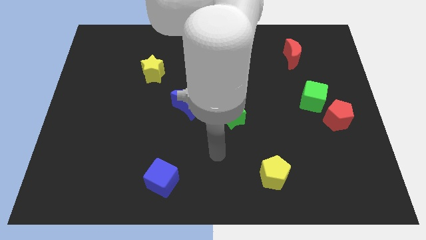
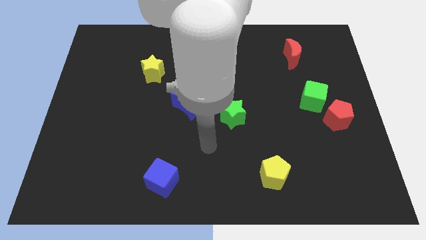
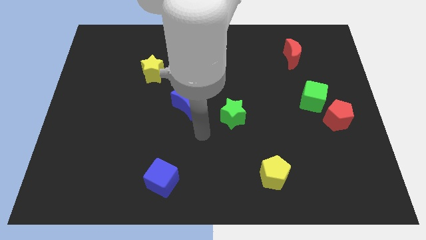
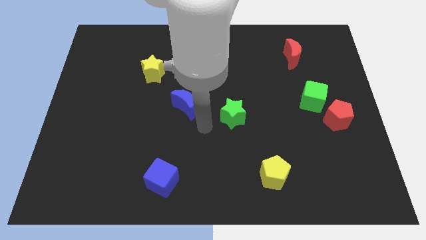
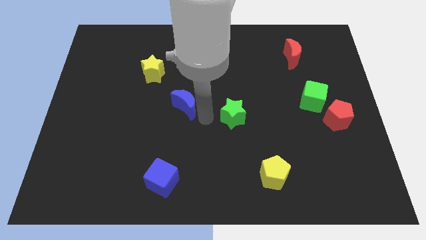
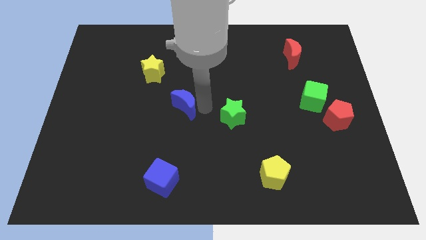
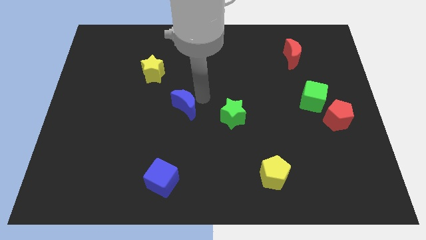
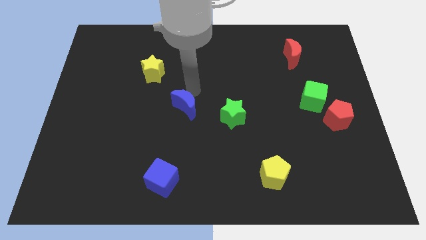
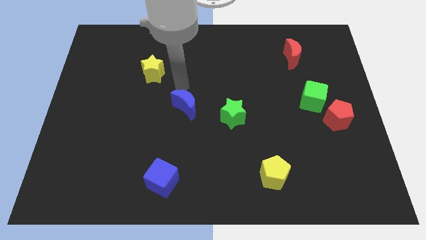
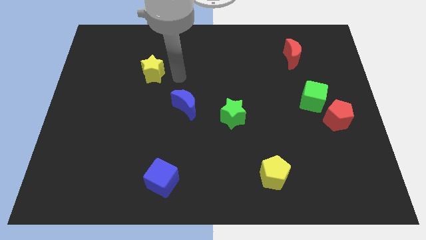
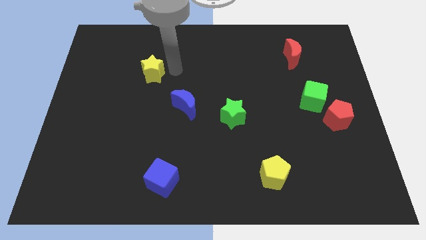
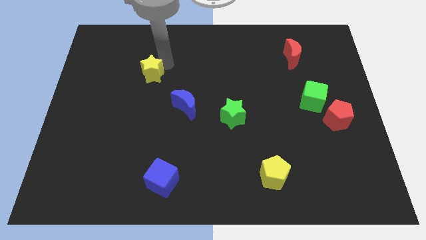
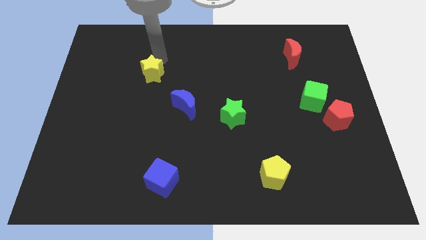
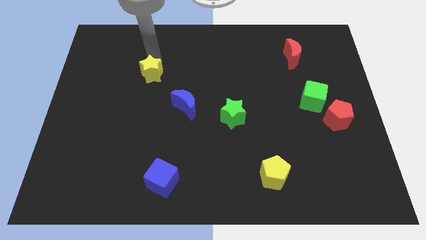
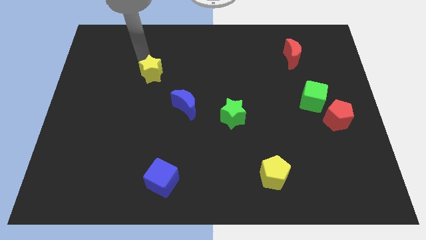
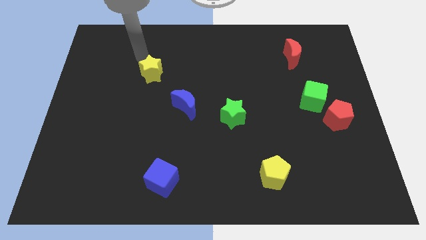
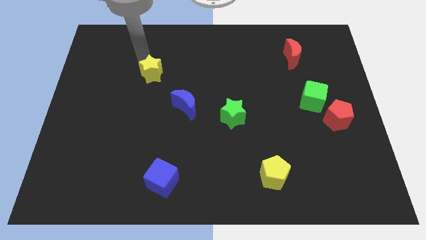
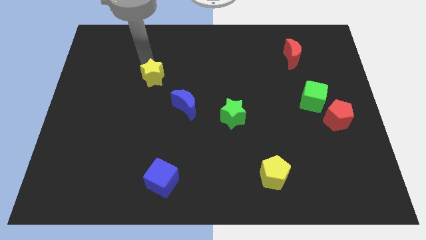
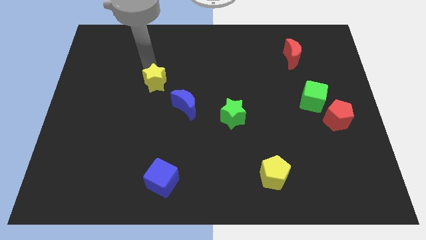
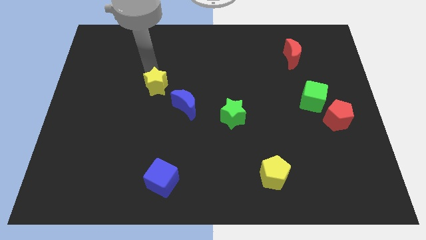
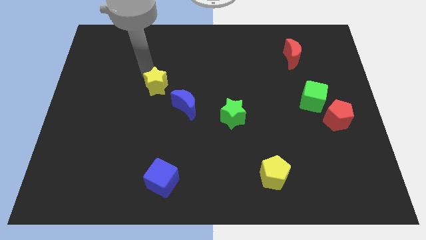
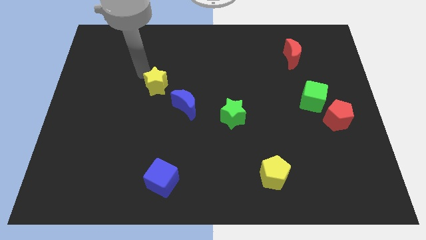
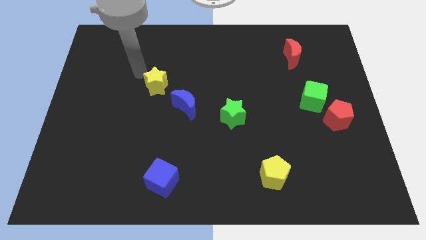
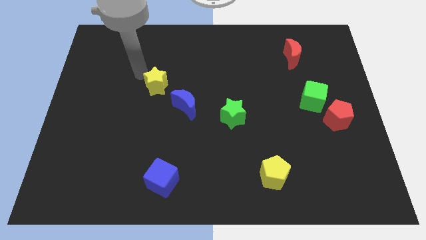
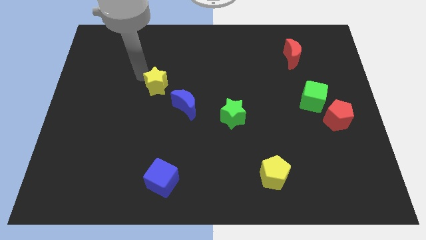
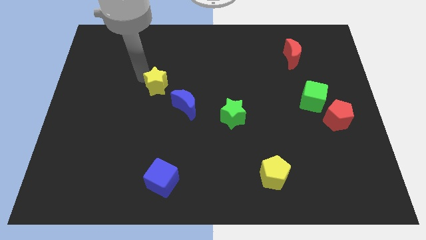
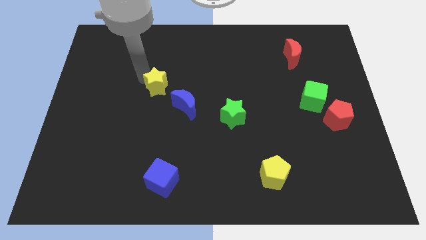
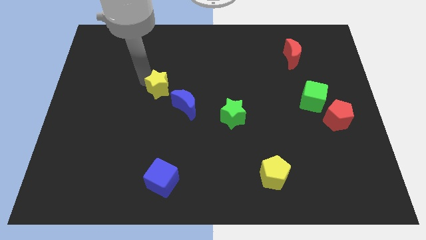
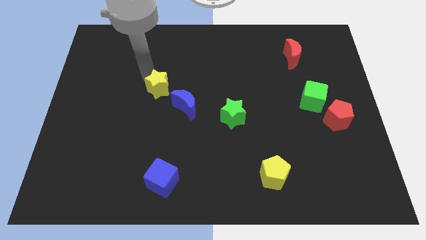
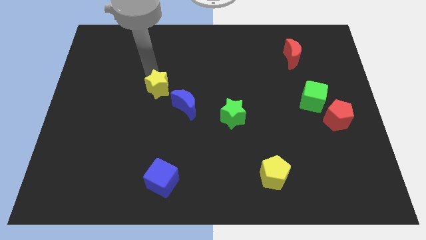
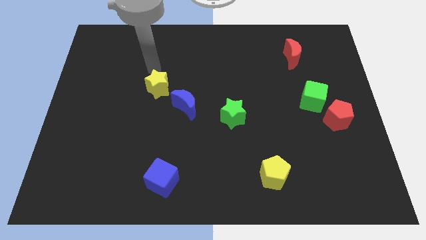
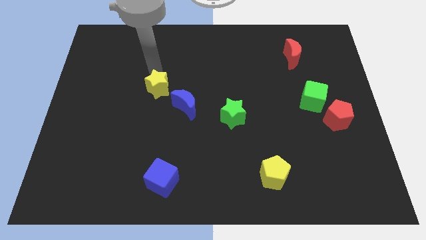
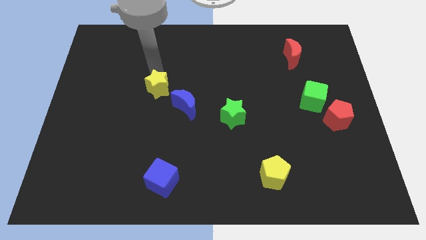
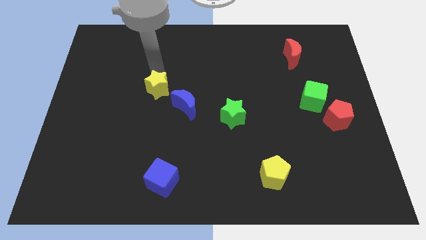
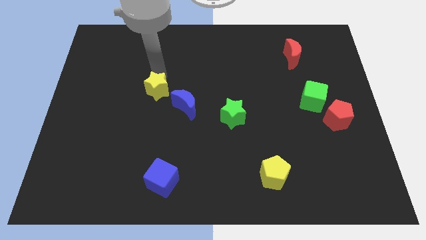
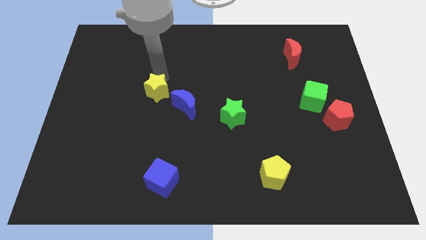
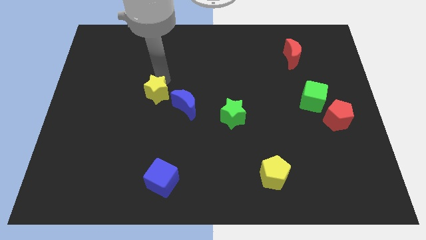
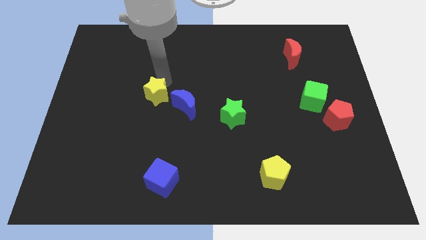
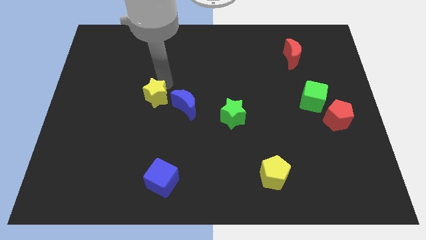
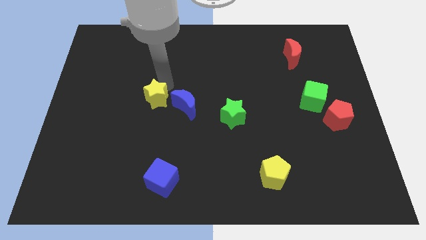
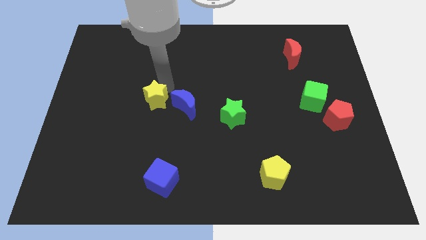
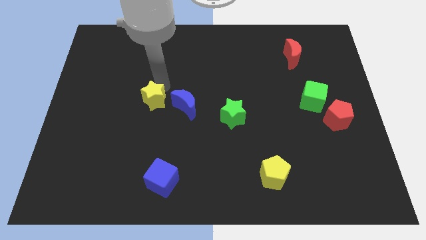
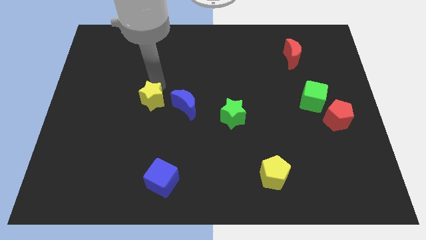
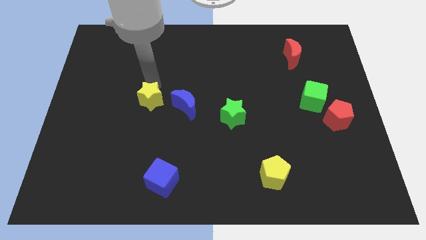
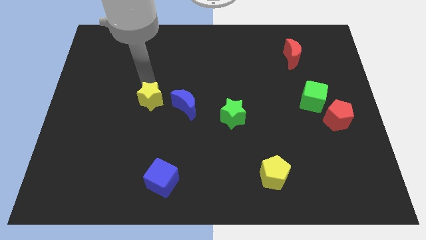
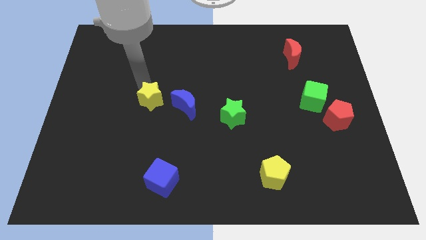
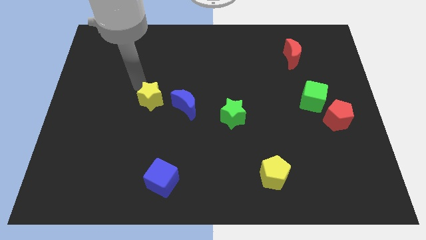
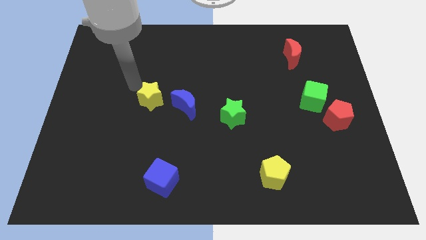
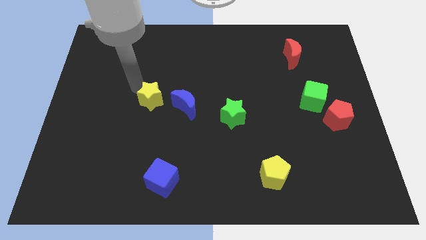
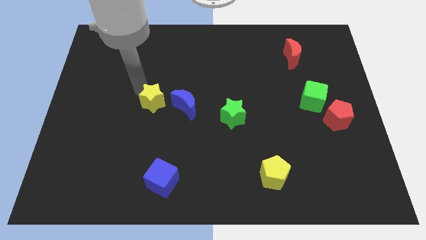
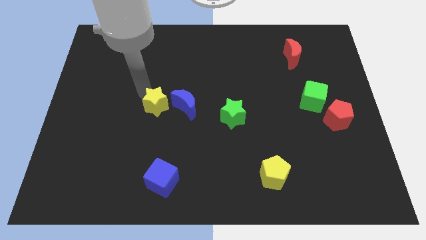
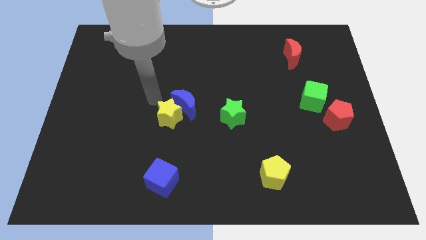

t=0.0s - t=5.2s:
put the yellow star to the bottom of the blue moon

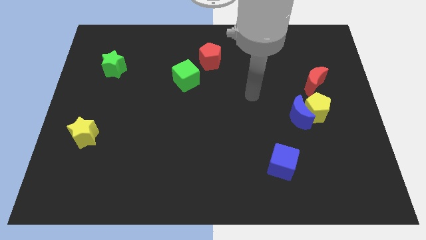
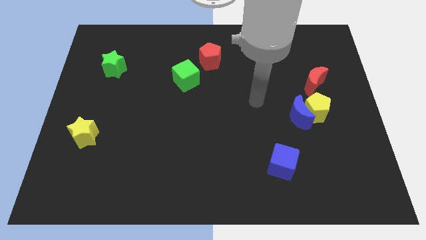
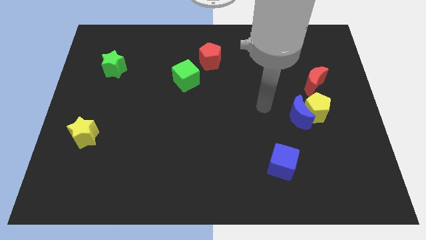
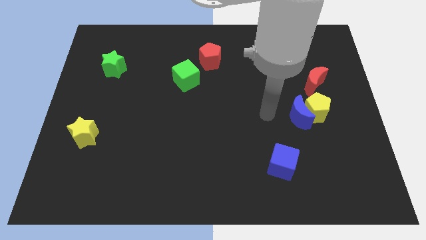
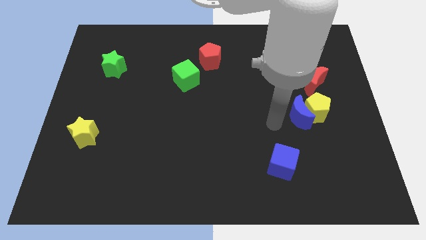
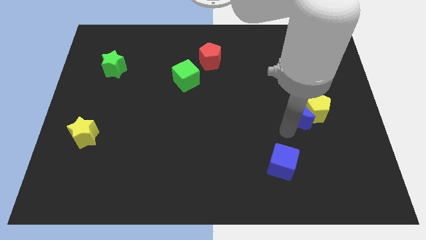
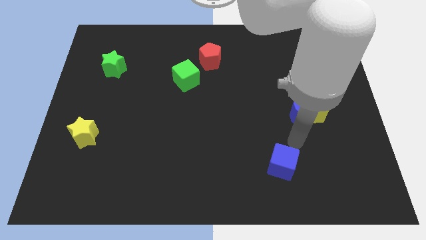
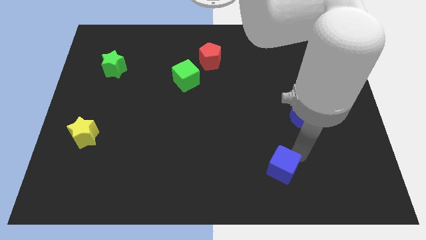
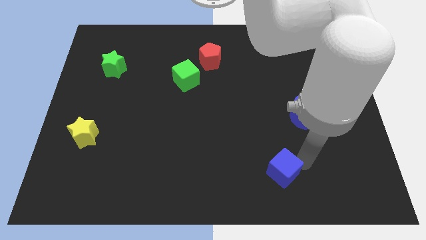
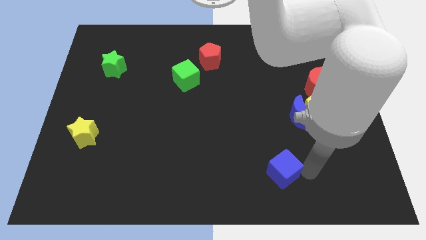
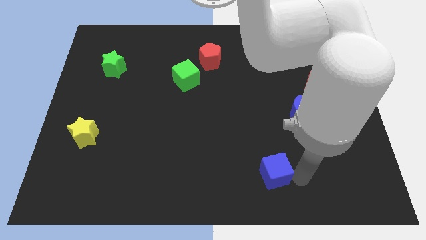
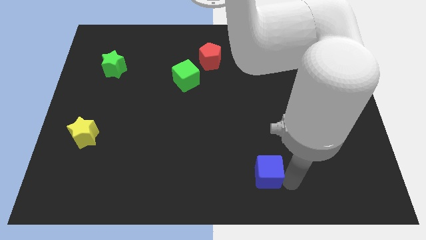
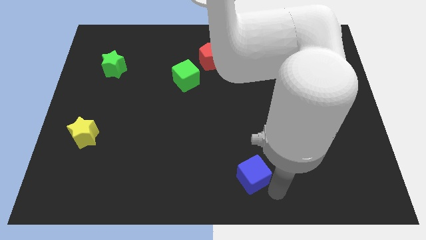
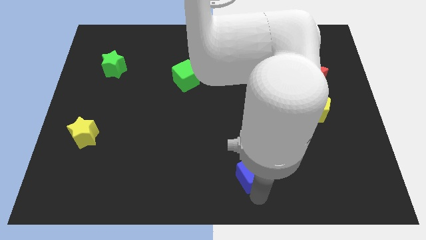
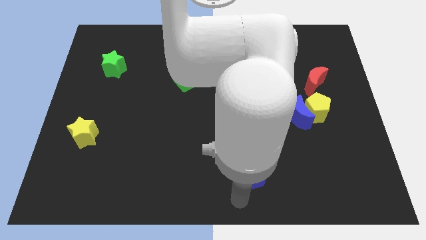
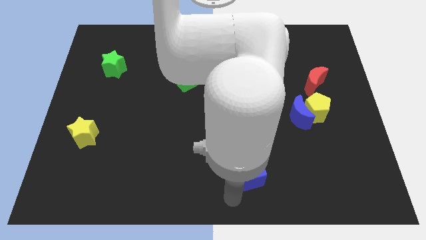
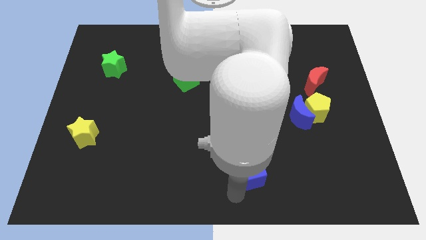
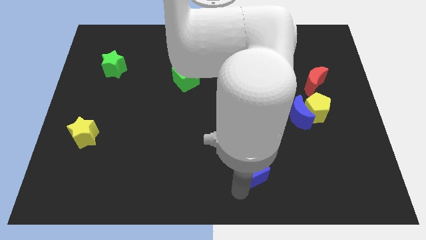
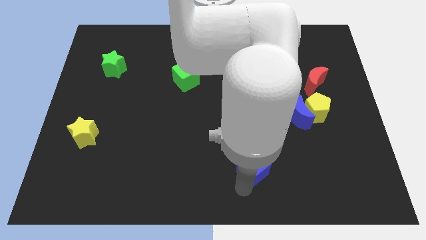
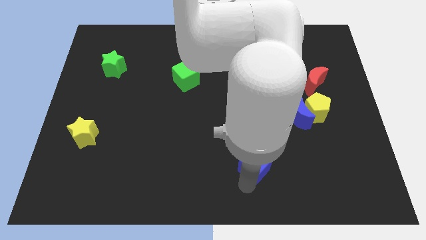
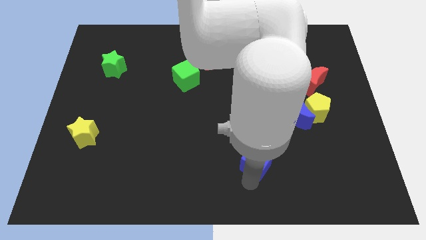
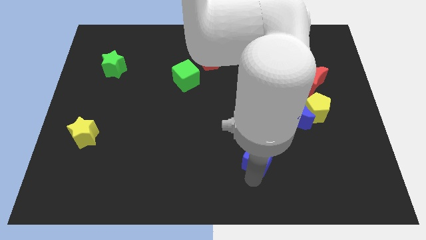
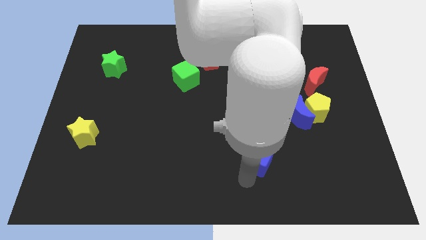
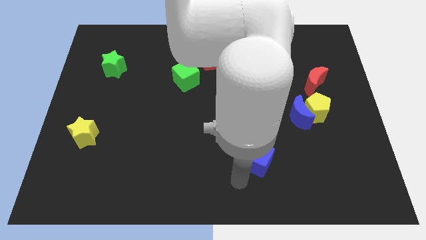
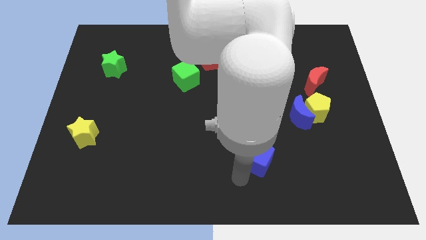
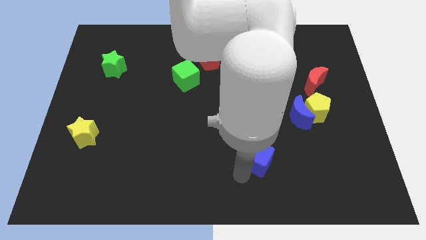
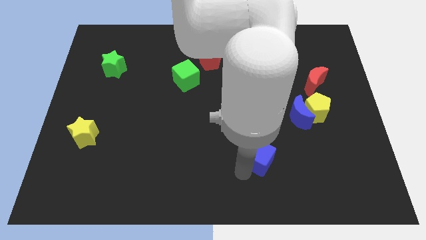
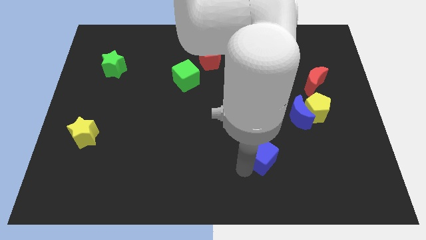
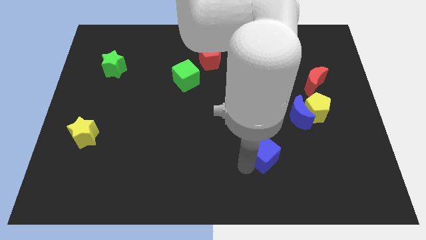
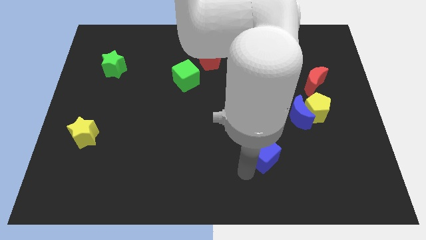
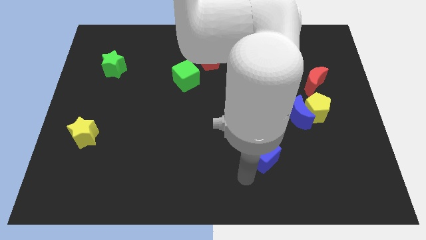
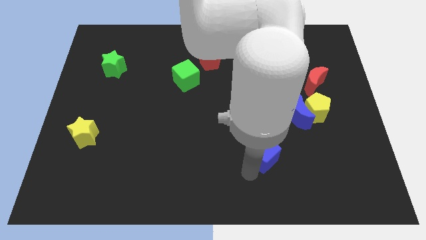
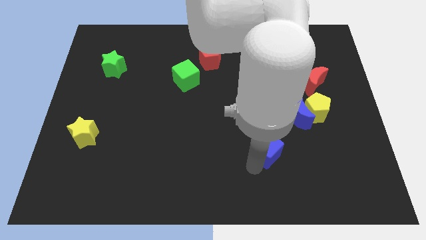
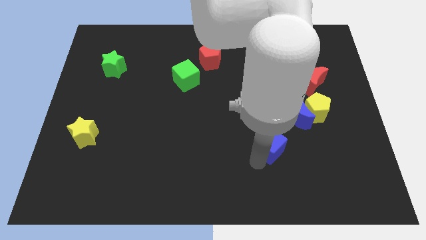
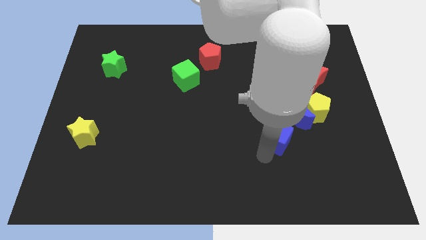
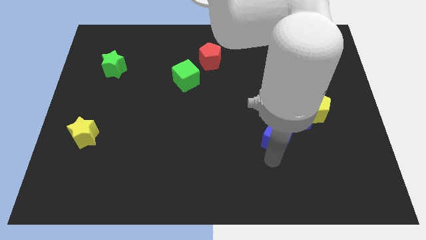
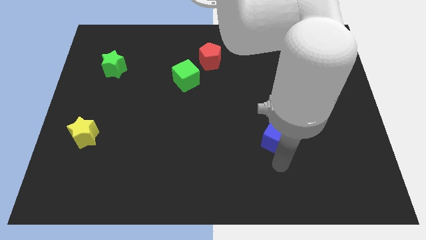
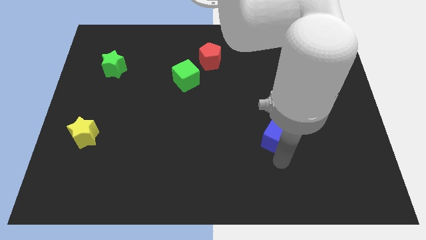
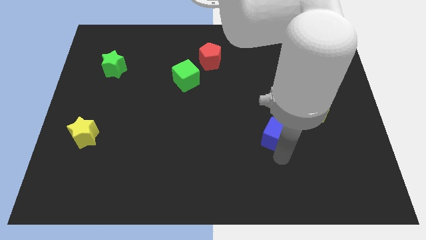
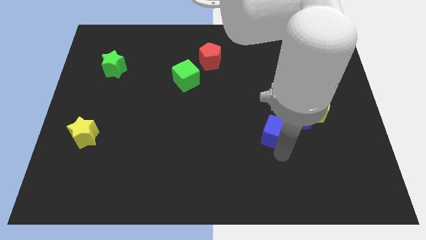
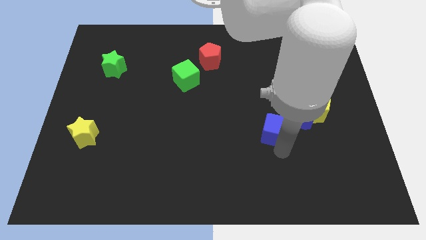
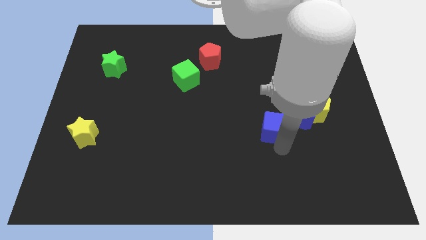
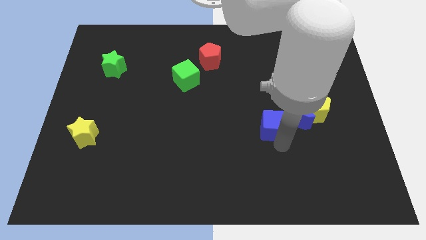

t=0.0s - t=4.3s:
move the blue cube to the left side of the yellow pentagon
